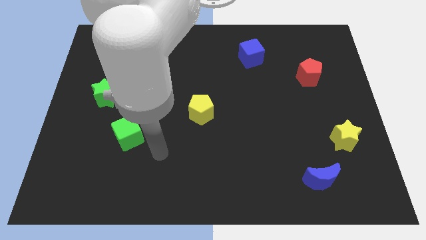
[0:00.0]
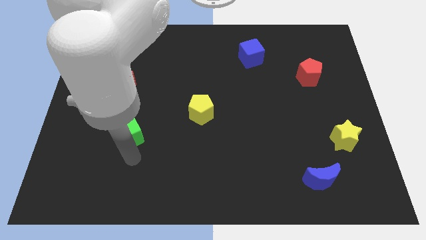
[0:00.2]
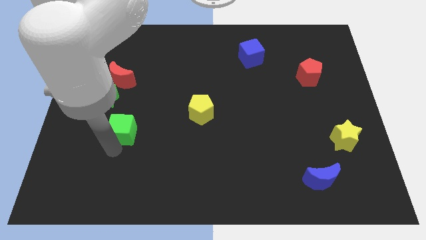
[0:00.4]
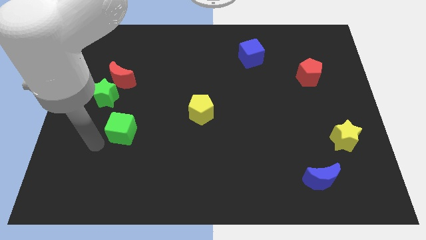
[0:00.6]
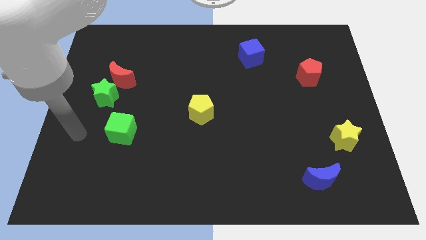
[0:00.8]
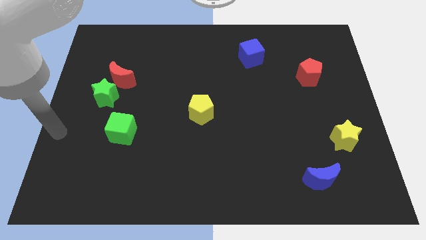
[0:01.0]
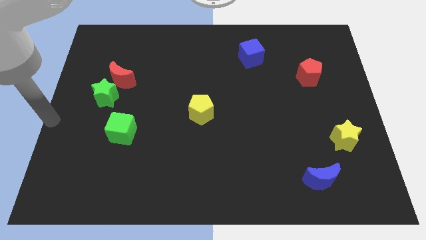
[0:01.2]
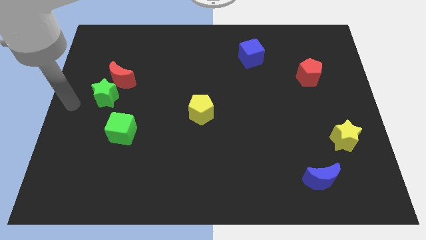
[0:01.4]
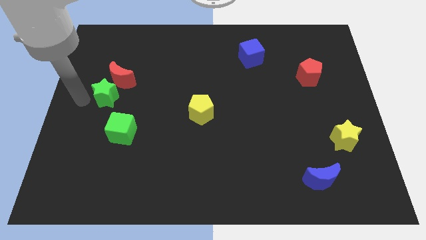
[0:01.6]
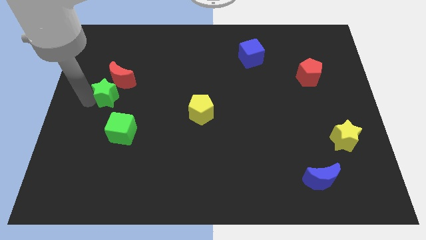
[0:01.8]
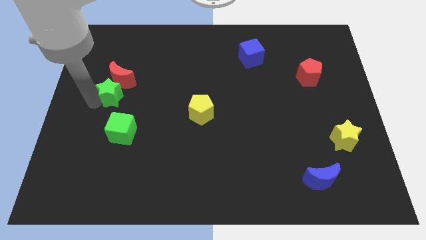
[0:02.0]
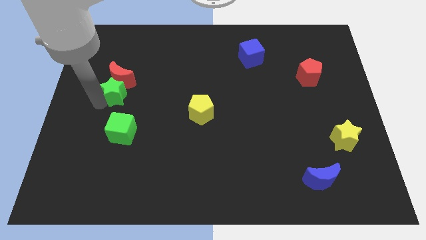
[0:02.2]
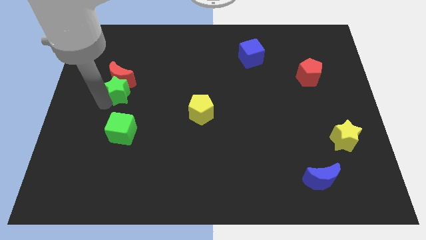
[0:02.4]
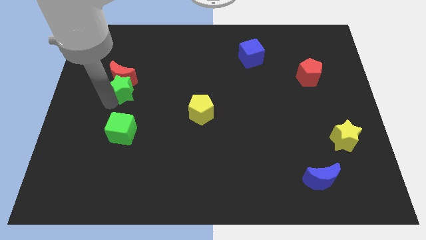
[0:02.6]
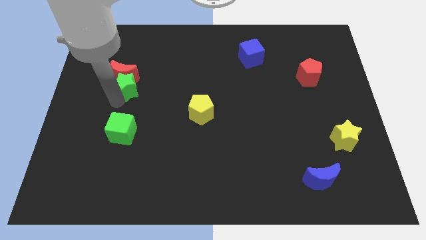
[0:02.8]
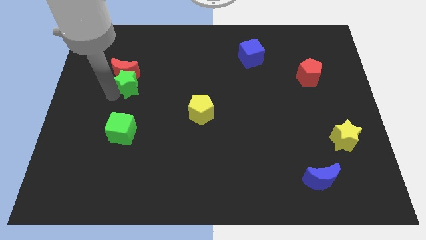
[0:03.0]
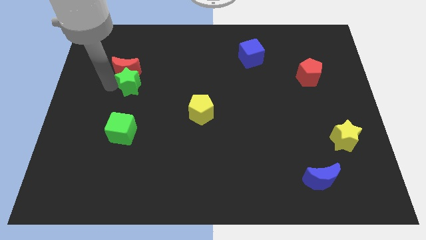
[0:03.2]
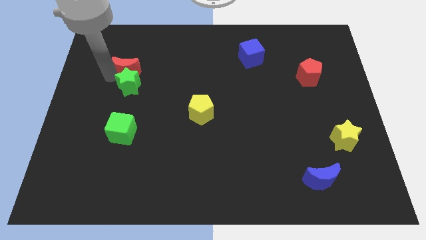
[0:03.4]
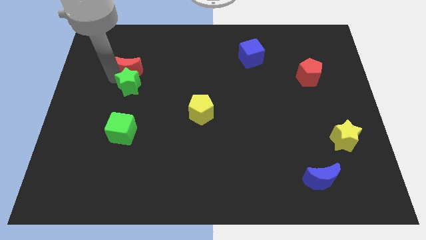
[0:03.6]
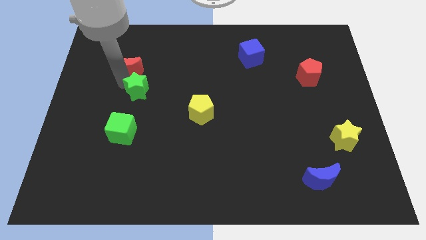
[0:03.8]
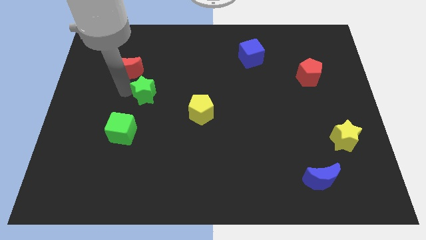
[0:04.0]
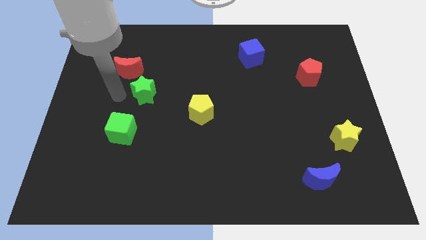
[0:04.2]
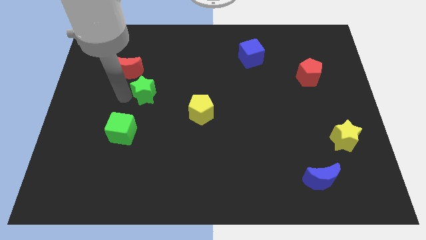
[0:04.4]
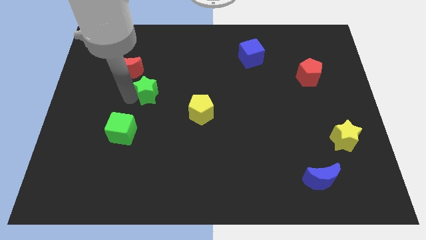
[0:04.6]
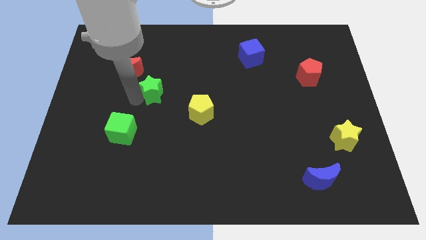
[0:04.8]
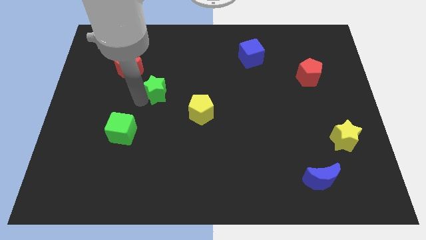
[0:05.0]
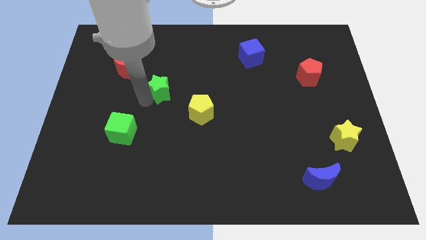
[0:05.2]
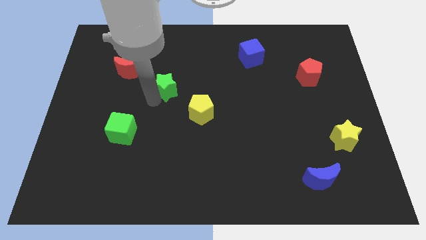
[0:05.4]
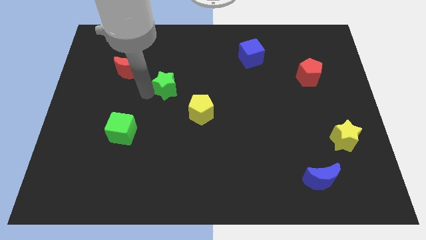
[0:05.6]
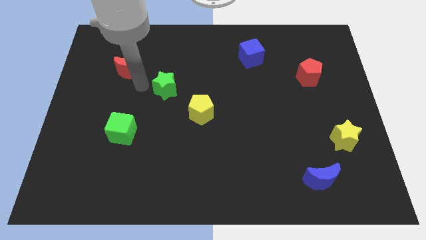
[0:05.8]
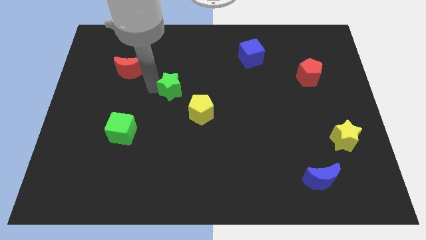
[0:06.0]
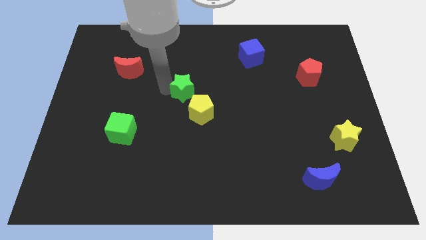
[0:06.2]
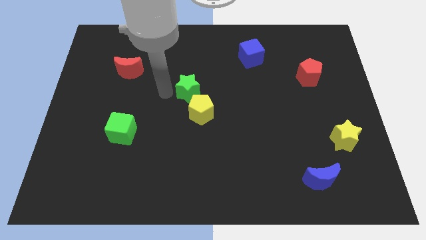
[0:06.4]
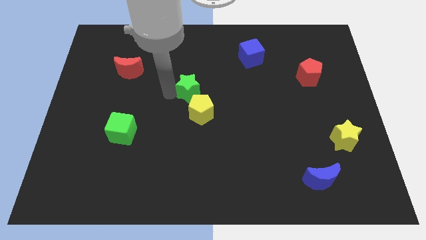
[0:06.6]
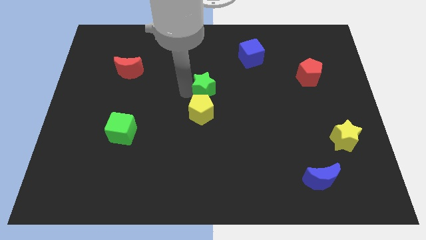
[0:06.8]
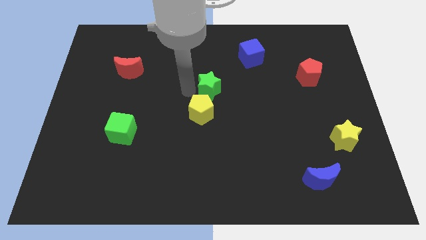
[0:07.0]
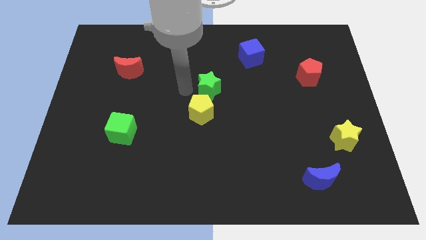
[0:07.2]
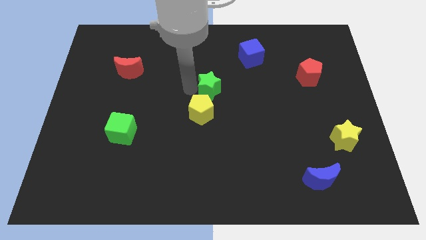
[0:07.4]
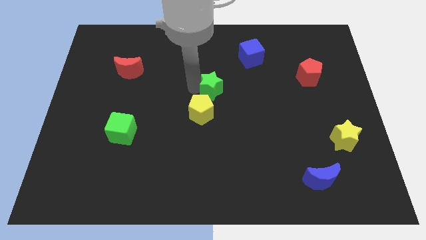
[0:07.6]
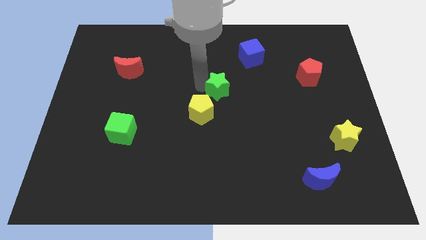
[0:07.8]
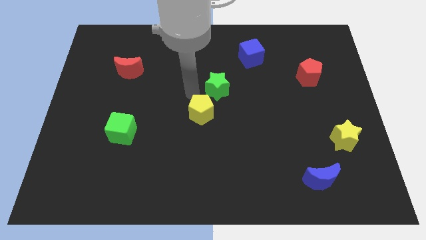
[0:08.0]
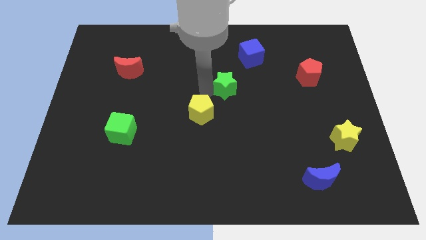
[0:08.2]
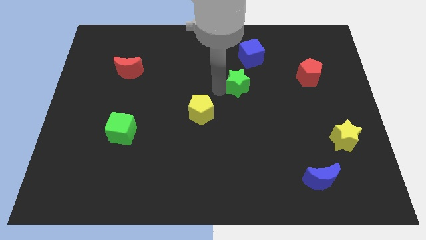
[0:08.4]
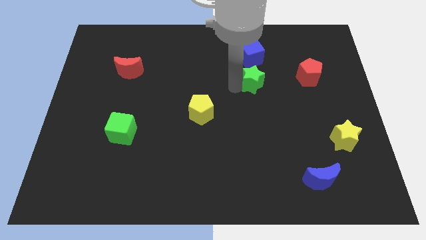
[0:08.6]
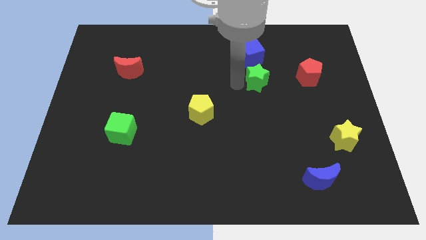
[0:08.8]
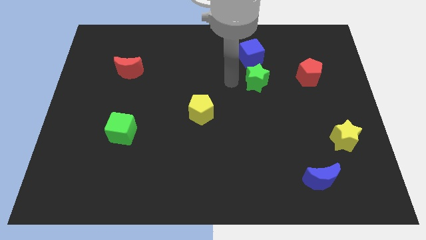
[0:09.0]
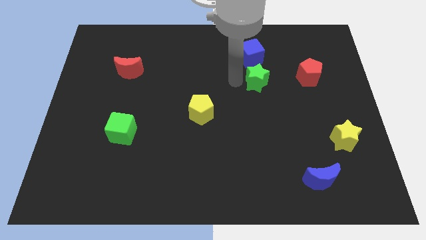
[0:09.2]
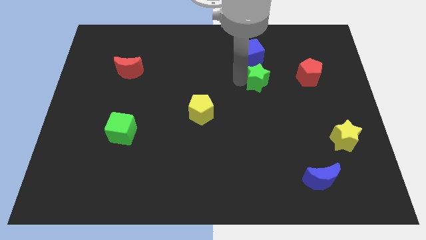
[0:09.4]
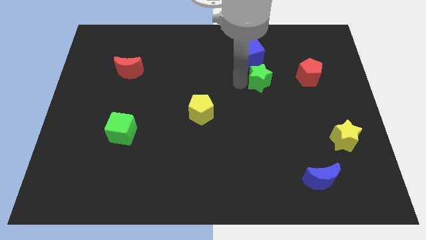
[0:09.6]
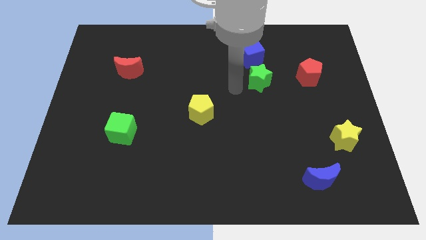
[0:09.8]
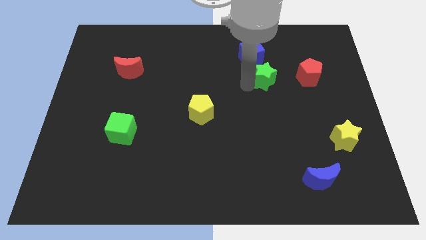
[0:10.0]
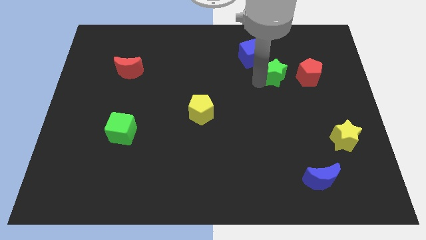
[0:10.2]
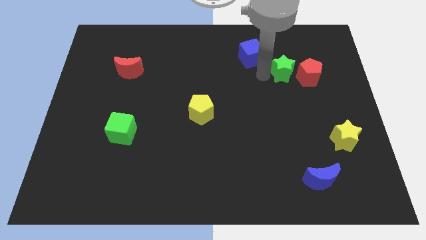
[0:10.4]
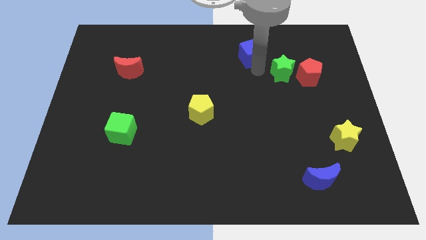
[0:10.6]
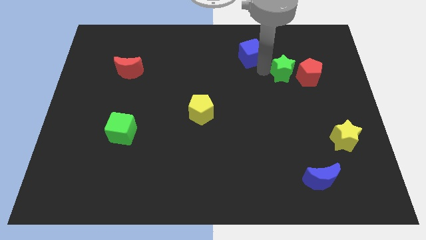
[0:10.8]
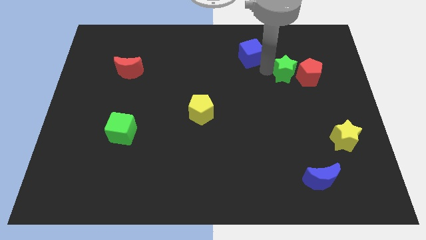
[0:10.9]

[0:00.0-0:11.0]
put the green star next to the red pentagon

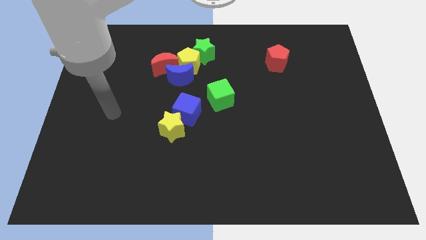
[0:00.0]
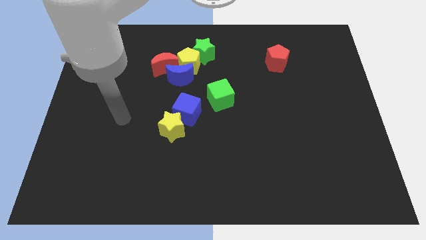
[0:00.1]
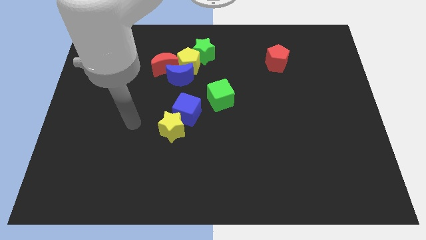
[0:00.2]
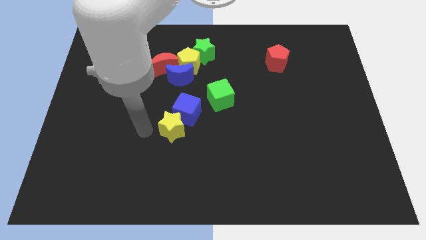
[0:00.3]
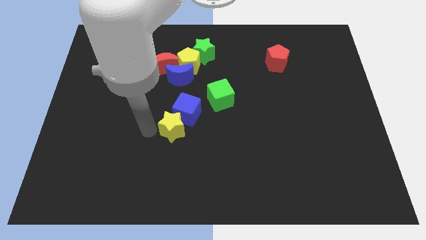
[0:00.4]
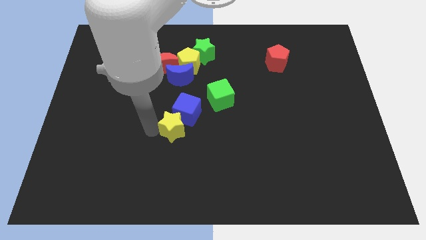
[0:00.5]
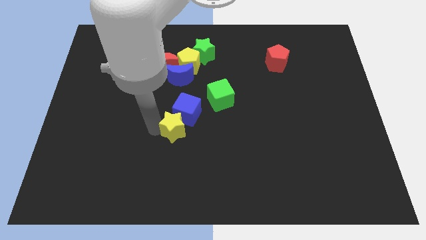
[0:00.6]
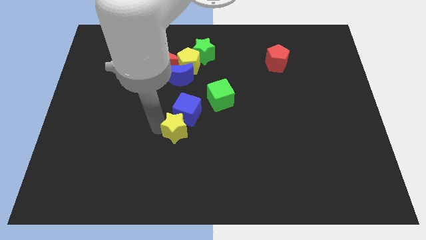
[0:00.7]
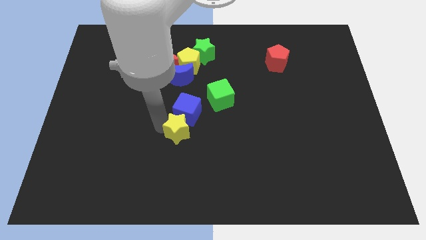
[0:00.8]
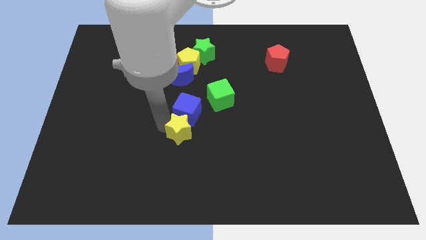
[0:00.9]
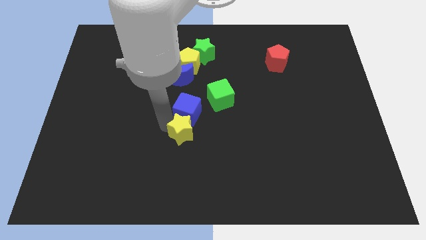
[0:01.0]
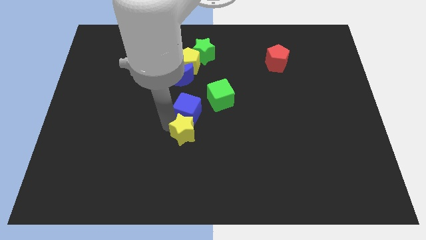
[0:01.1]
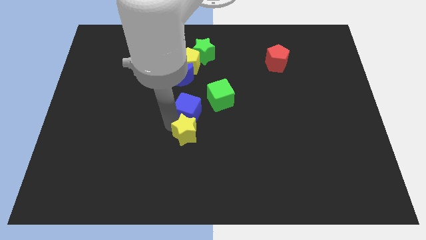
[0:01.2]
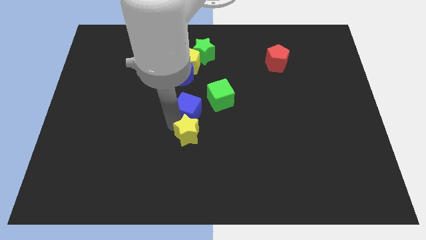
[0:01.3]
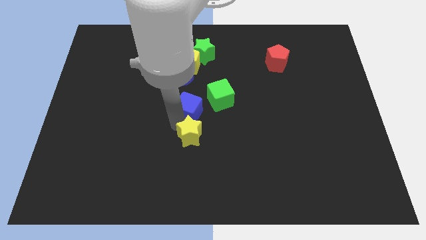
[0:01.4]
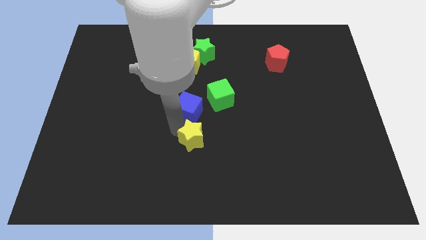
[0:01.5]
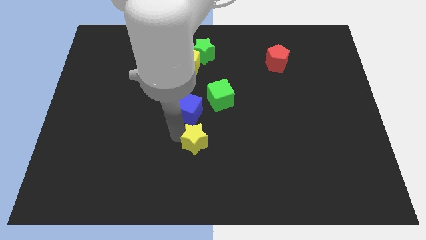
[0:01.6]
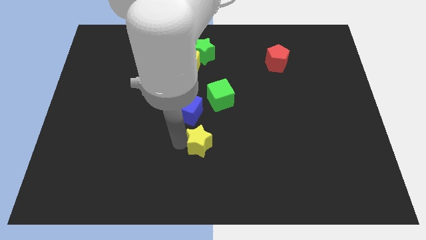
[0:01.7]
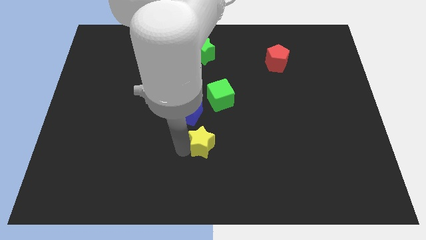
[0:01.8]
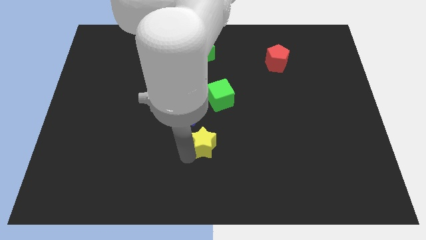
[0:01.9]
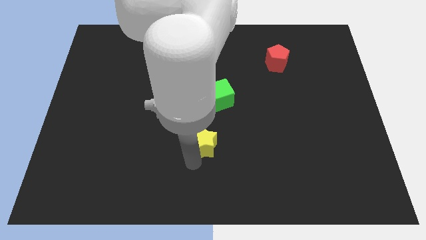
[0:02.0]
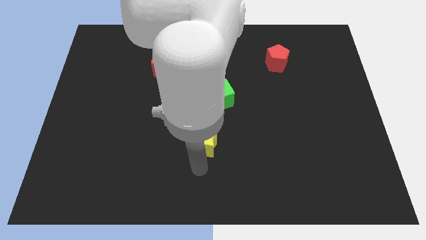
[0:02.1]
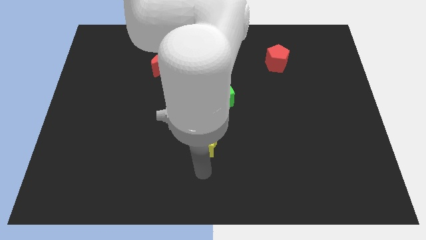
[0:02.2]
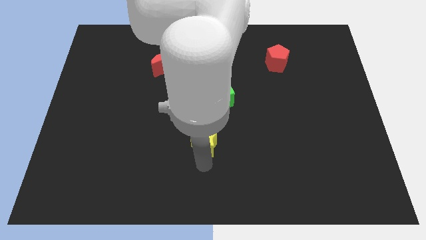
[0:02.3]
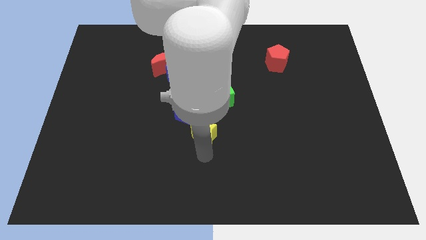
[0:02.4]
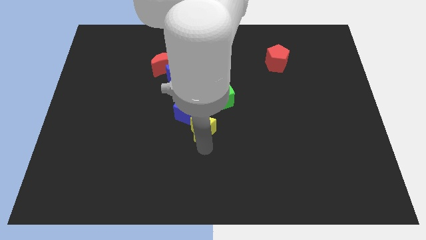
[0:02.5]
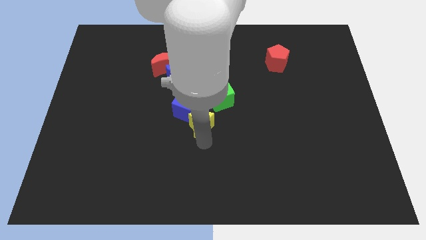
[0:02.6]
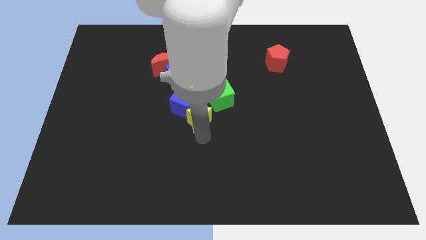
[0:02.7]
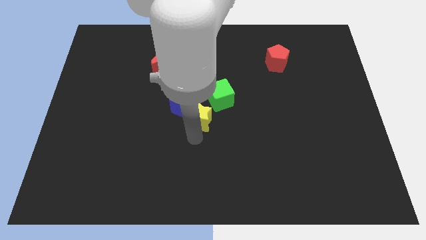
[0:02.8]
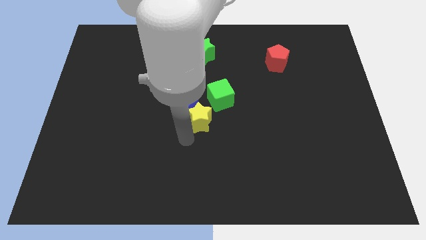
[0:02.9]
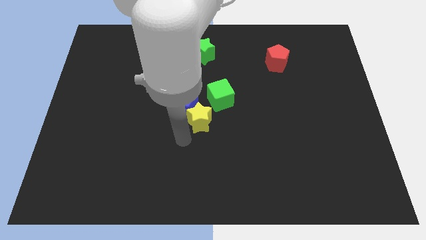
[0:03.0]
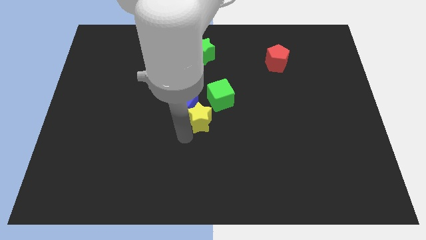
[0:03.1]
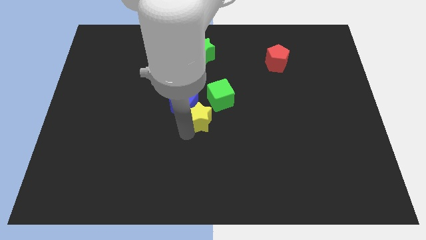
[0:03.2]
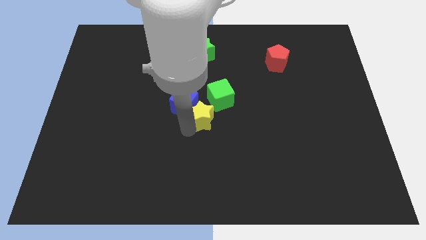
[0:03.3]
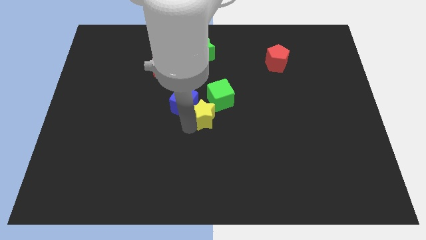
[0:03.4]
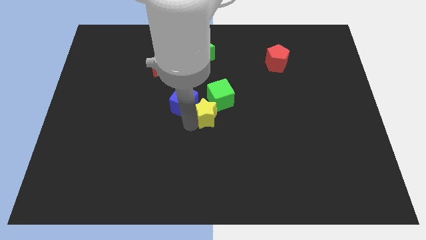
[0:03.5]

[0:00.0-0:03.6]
push the yellow star close to the green cube
